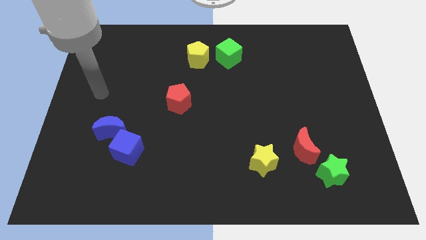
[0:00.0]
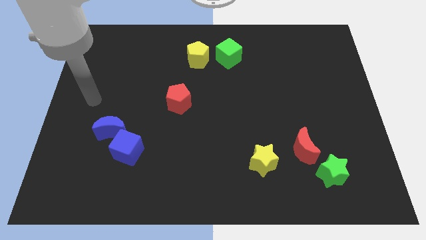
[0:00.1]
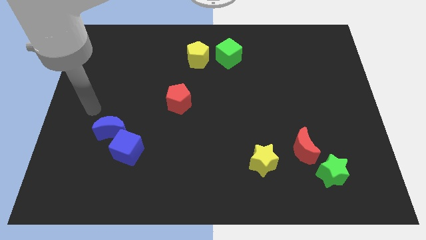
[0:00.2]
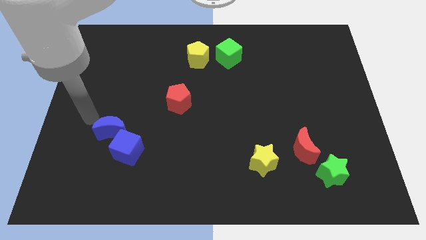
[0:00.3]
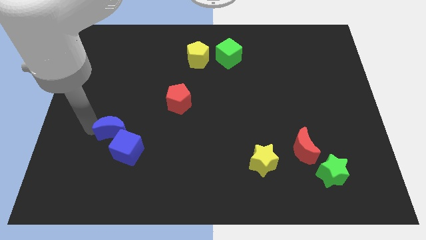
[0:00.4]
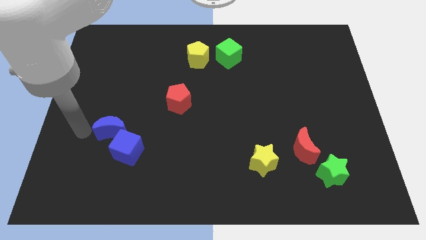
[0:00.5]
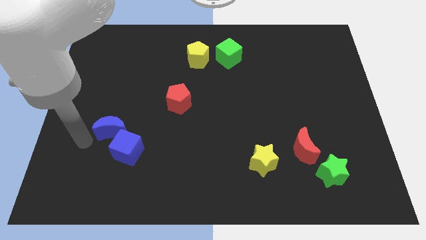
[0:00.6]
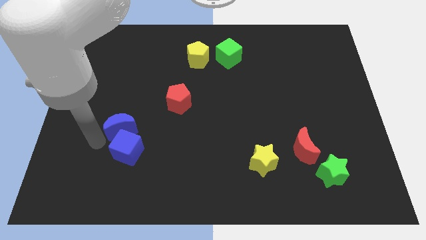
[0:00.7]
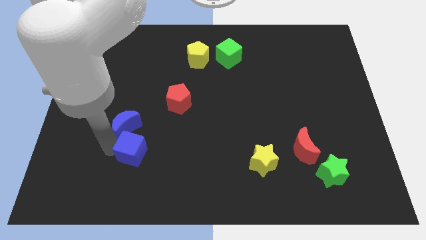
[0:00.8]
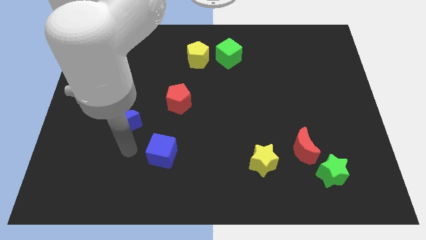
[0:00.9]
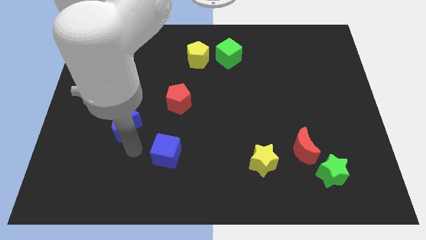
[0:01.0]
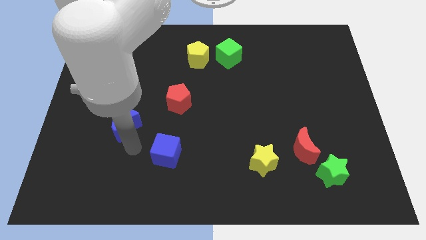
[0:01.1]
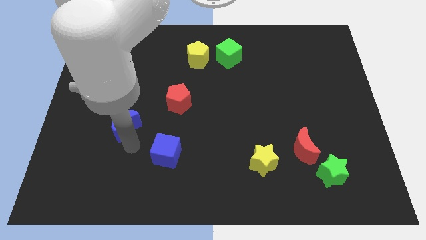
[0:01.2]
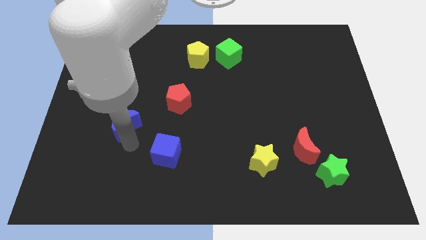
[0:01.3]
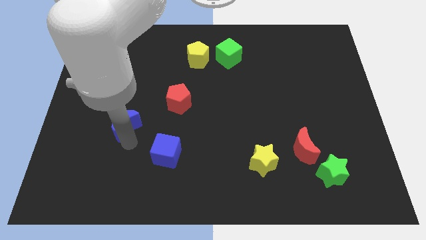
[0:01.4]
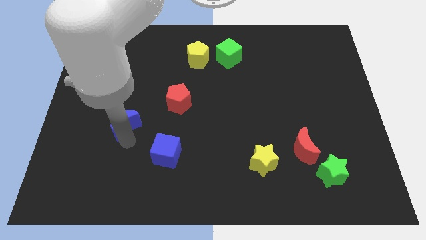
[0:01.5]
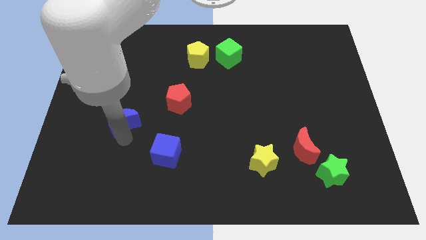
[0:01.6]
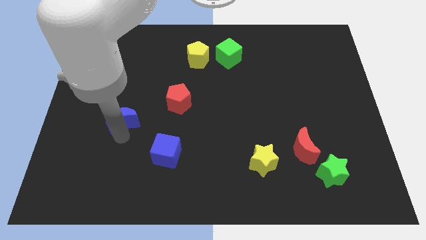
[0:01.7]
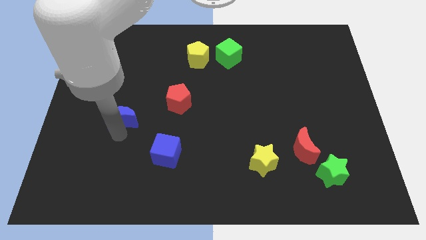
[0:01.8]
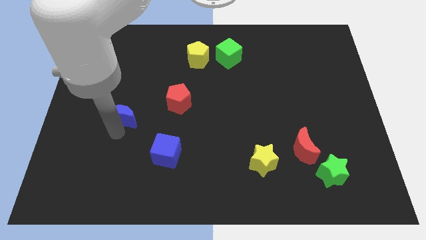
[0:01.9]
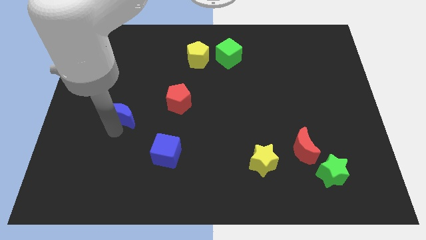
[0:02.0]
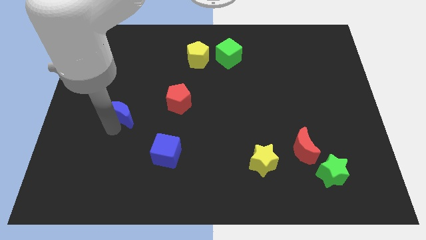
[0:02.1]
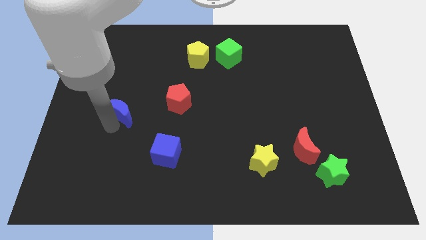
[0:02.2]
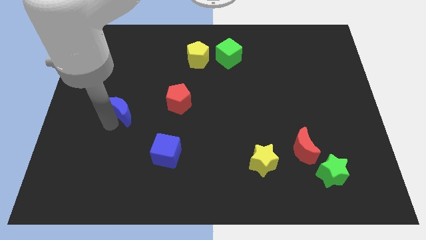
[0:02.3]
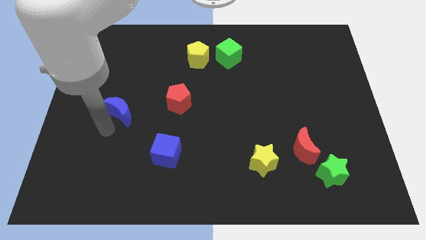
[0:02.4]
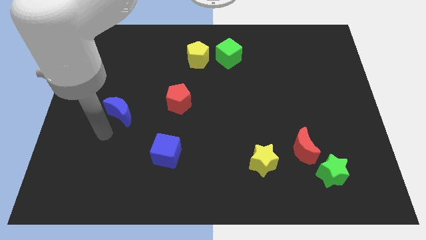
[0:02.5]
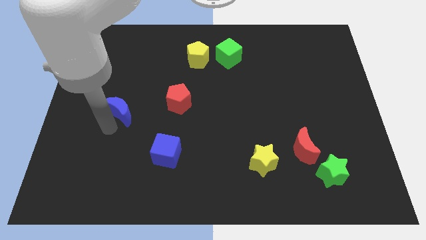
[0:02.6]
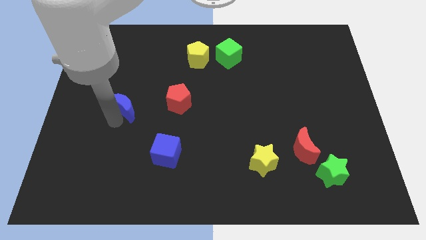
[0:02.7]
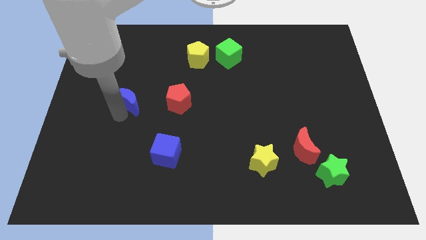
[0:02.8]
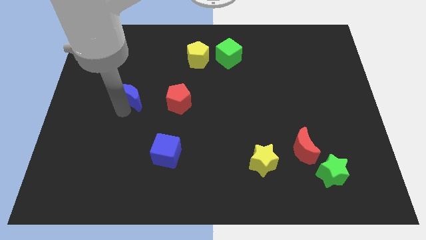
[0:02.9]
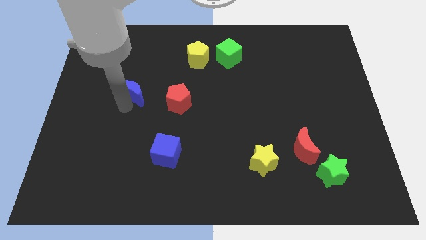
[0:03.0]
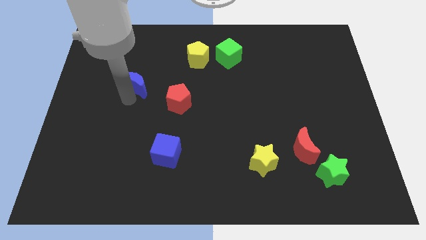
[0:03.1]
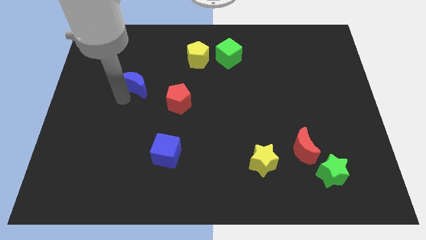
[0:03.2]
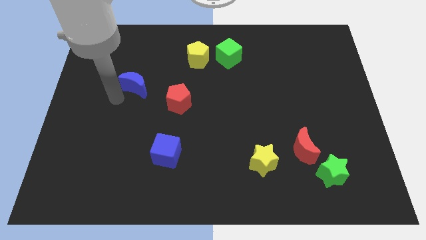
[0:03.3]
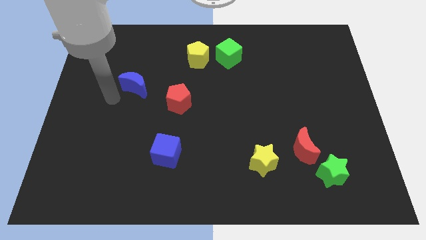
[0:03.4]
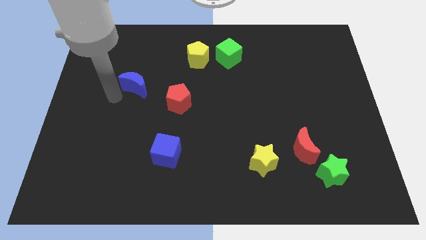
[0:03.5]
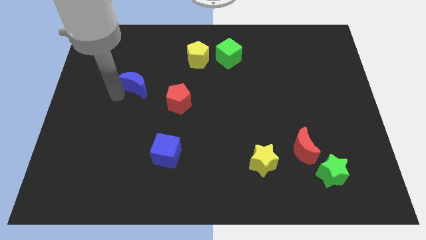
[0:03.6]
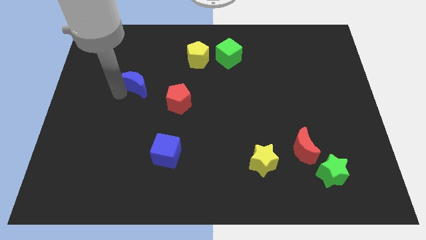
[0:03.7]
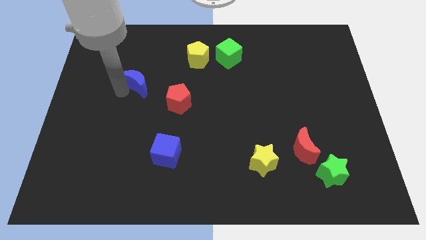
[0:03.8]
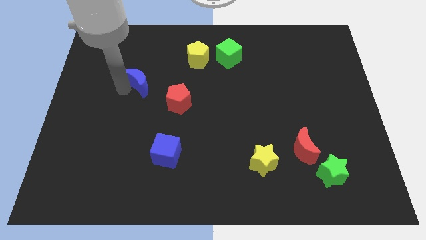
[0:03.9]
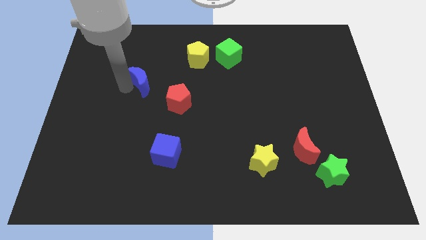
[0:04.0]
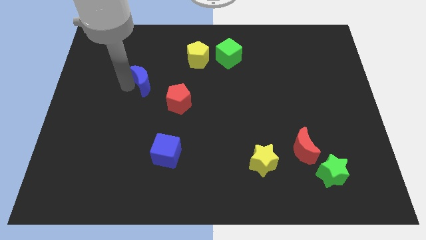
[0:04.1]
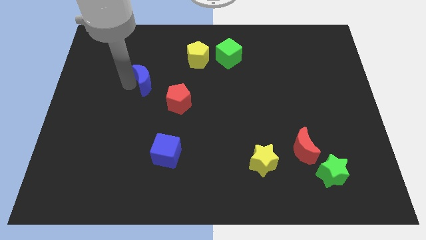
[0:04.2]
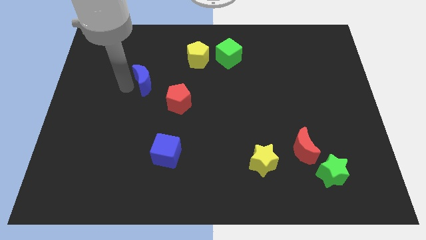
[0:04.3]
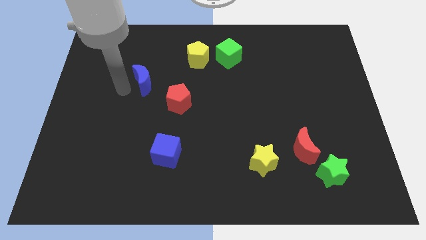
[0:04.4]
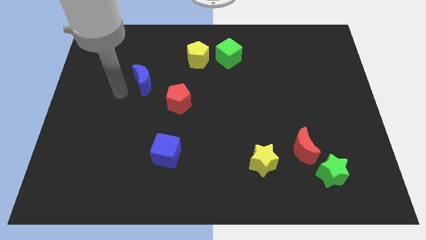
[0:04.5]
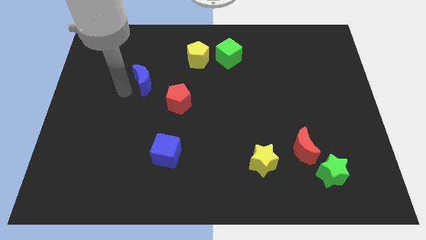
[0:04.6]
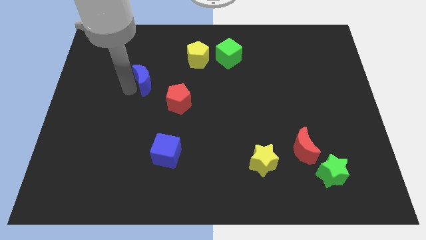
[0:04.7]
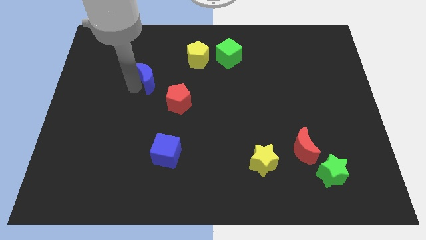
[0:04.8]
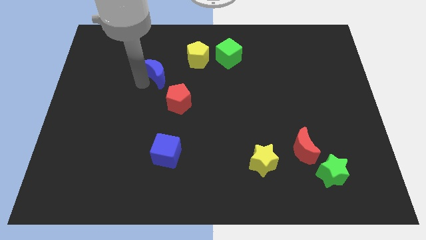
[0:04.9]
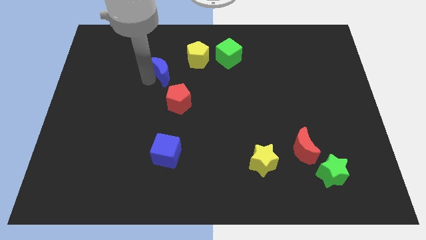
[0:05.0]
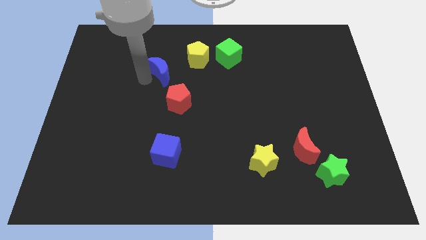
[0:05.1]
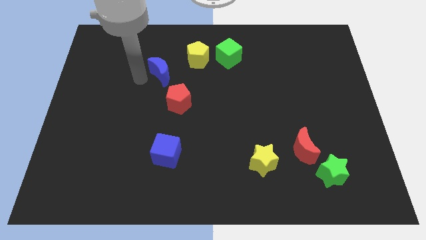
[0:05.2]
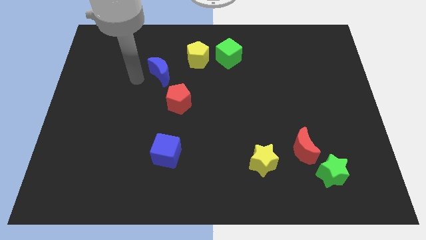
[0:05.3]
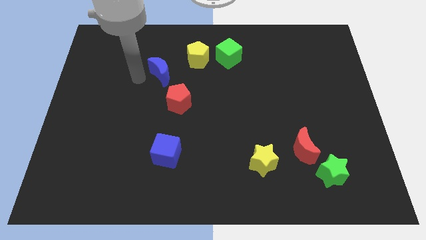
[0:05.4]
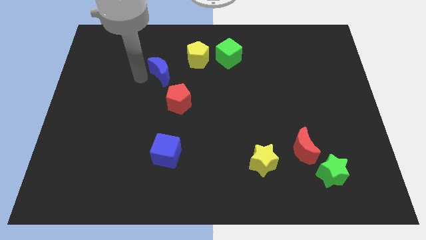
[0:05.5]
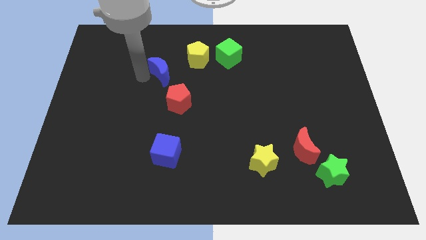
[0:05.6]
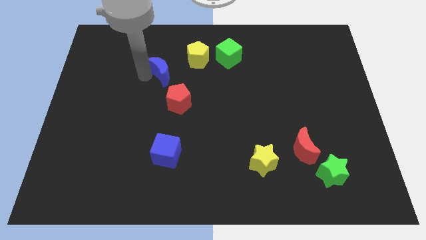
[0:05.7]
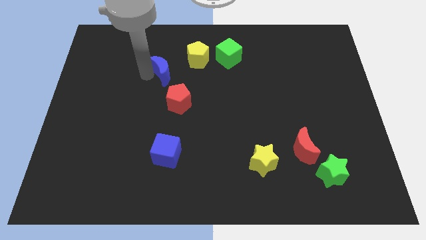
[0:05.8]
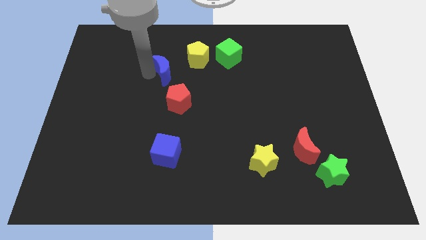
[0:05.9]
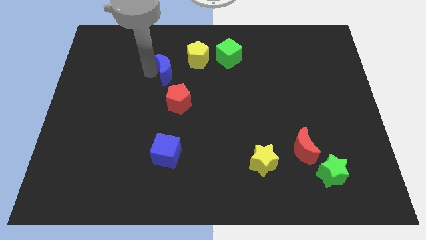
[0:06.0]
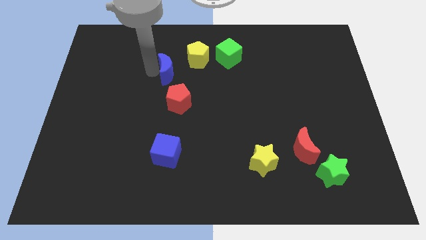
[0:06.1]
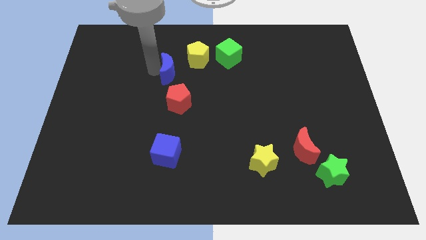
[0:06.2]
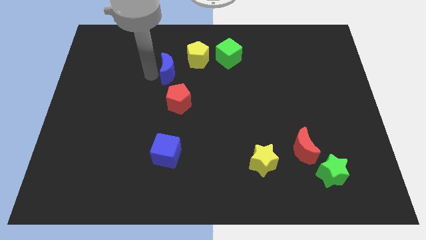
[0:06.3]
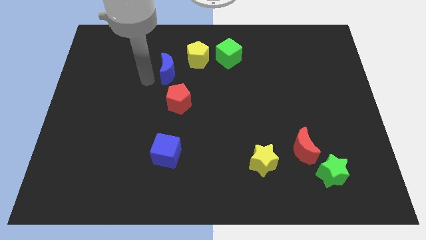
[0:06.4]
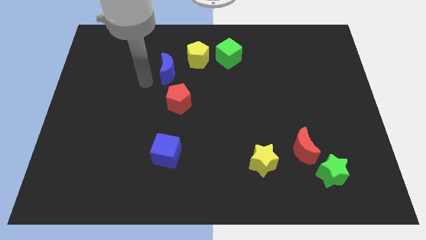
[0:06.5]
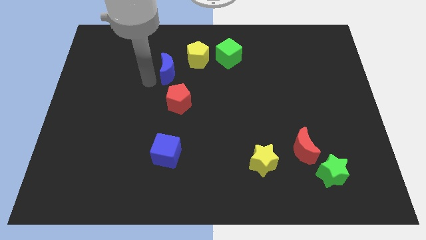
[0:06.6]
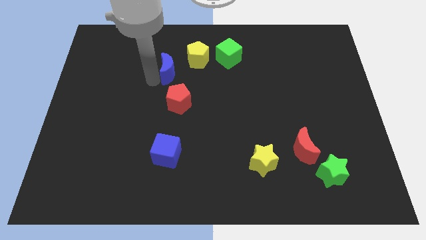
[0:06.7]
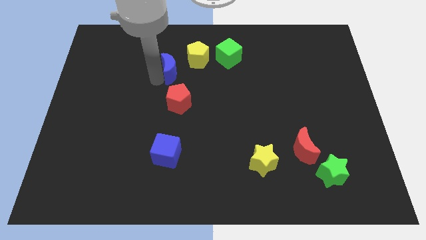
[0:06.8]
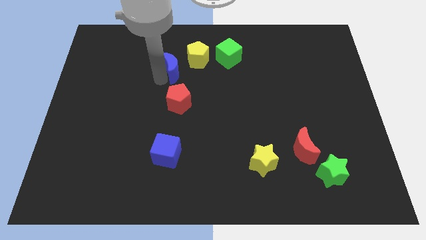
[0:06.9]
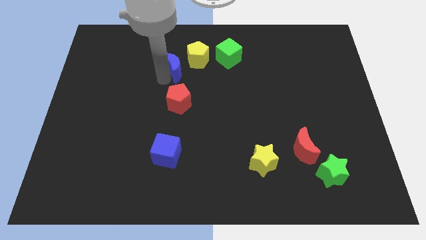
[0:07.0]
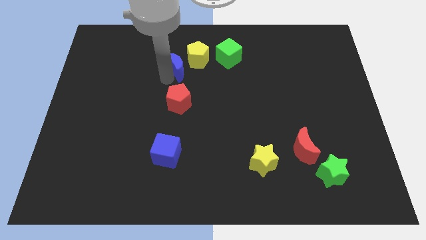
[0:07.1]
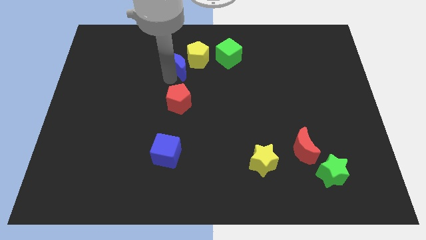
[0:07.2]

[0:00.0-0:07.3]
move the blue moon next to the yellow pentagon

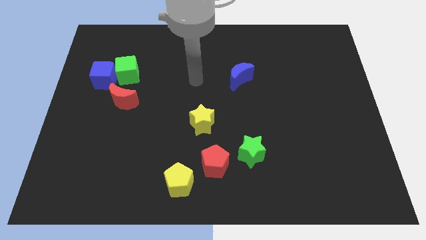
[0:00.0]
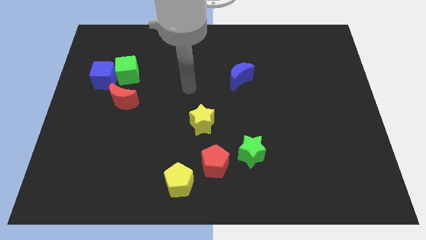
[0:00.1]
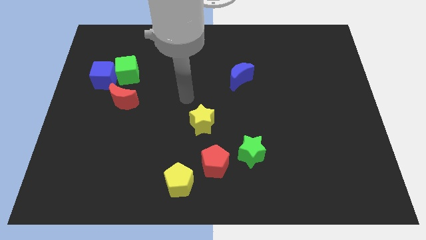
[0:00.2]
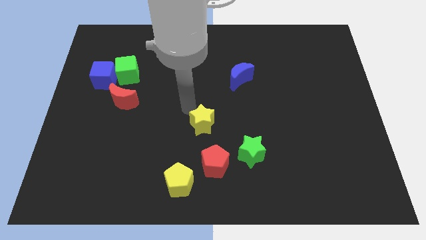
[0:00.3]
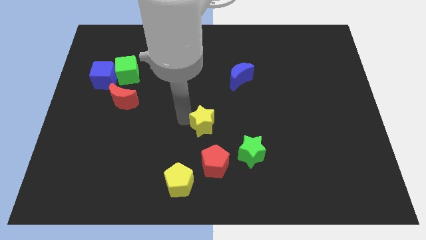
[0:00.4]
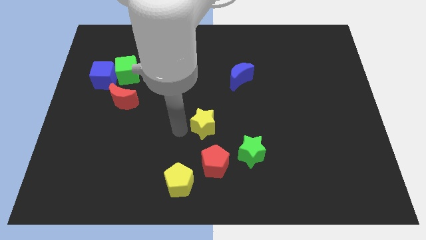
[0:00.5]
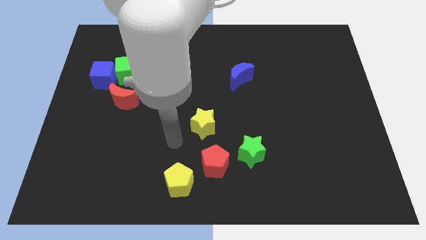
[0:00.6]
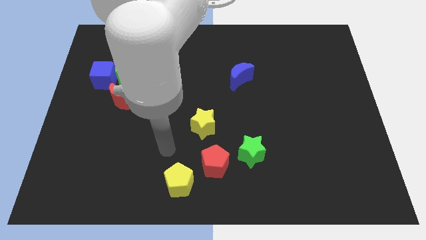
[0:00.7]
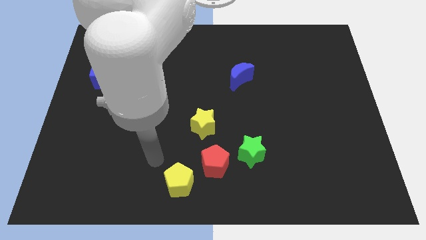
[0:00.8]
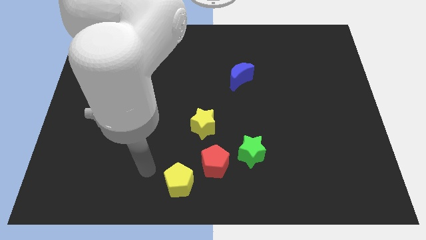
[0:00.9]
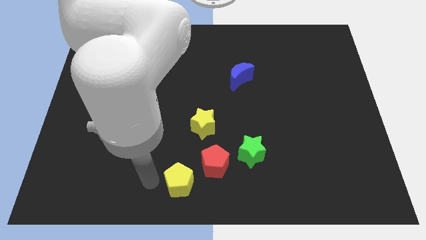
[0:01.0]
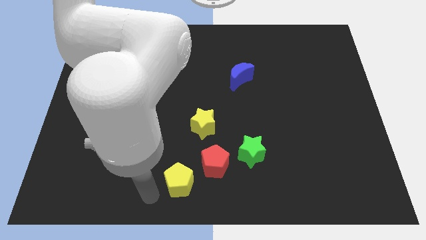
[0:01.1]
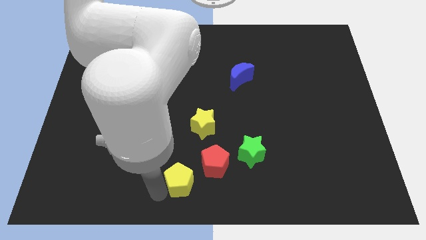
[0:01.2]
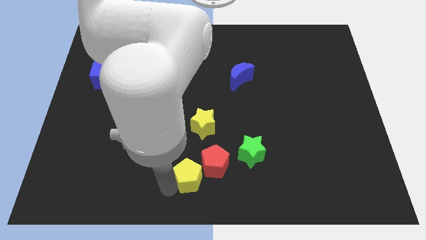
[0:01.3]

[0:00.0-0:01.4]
move the yellow pentagon close to the red pentagon
